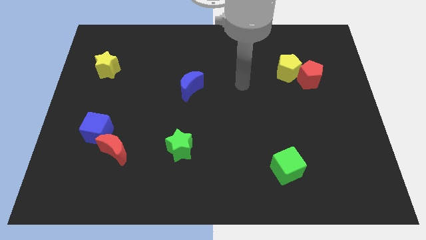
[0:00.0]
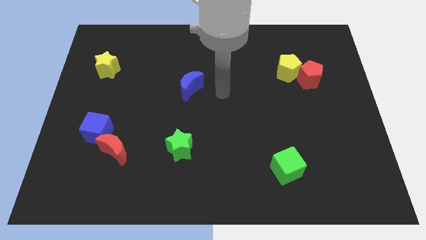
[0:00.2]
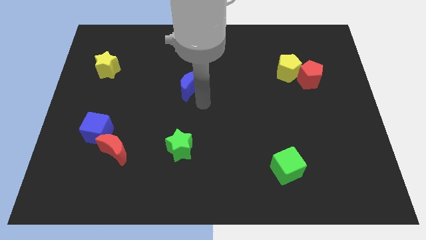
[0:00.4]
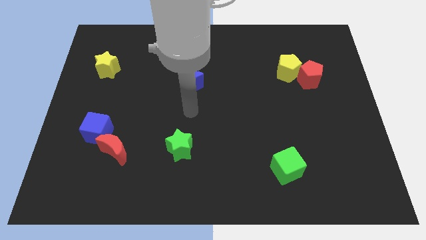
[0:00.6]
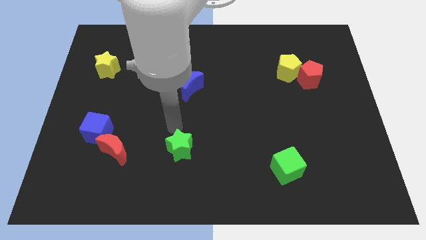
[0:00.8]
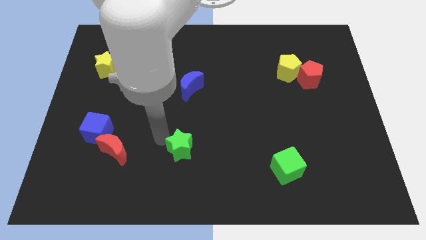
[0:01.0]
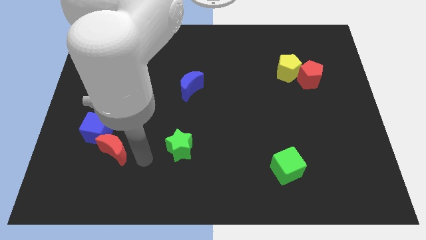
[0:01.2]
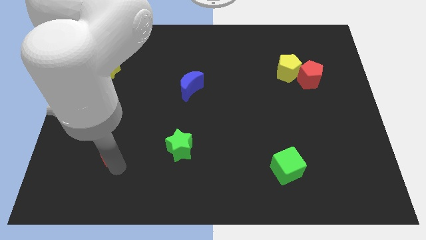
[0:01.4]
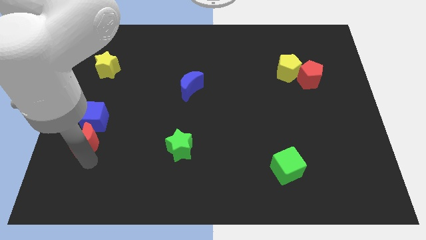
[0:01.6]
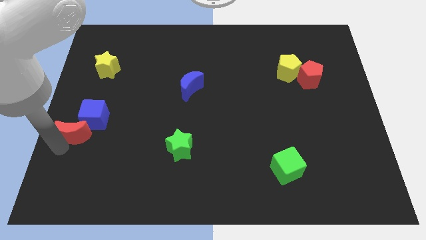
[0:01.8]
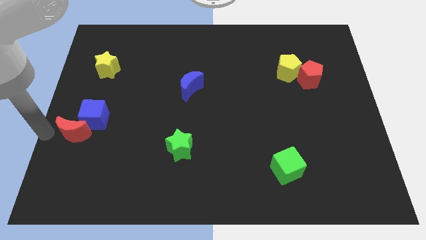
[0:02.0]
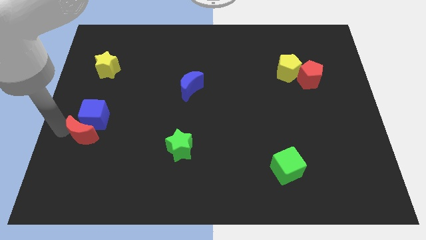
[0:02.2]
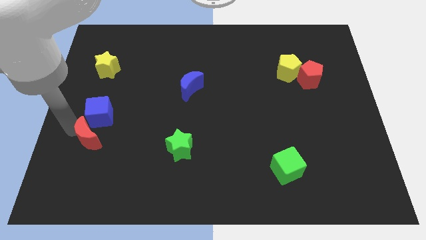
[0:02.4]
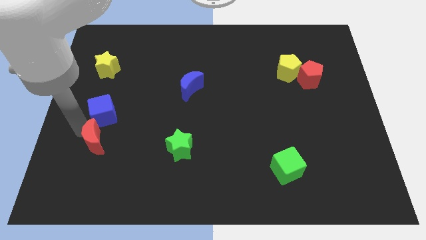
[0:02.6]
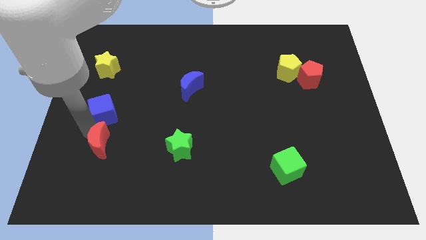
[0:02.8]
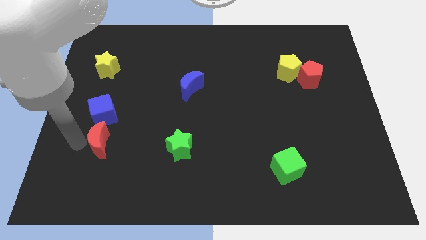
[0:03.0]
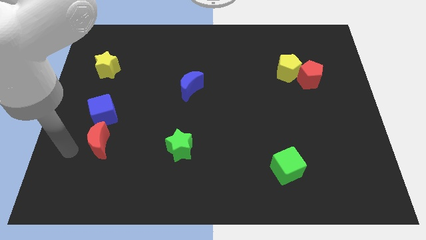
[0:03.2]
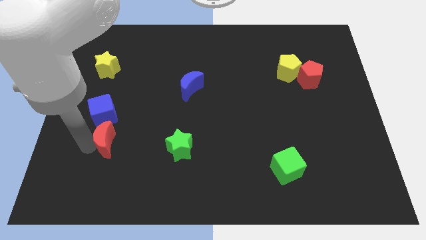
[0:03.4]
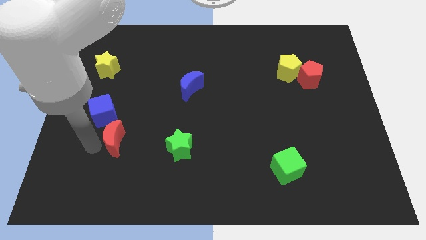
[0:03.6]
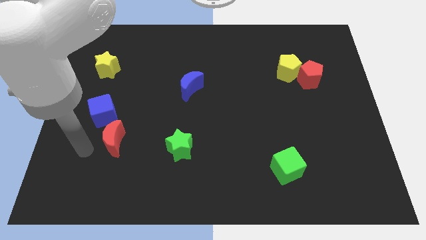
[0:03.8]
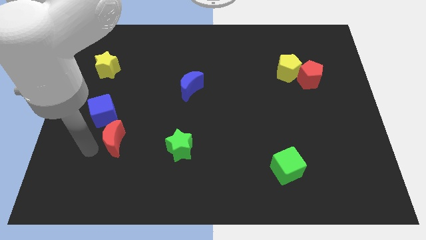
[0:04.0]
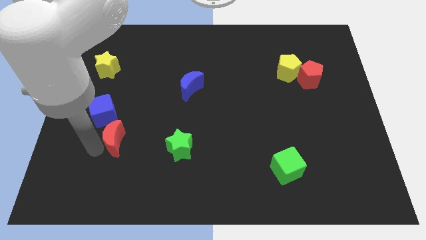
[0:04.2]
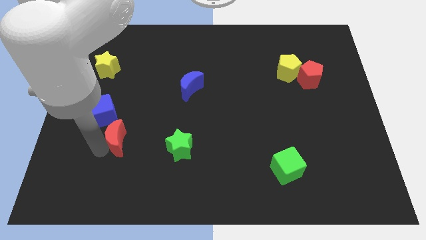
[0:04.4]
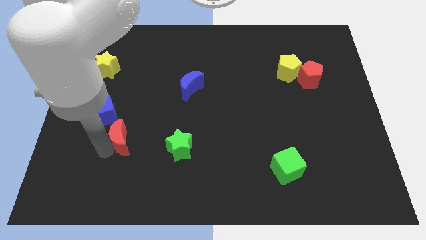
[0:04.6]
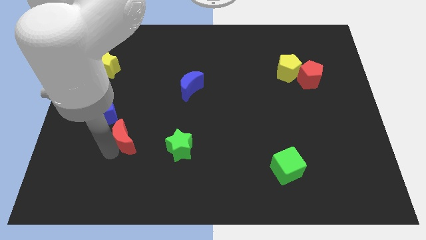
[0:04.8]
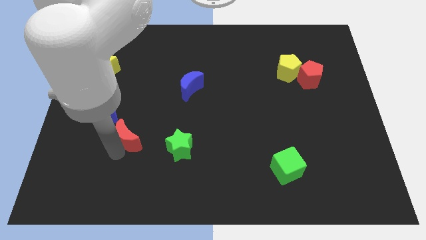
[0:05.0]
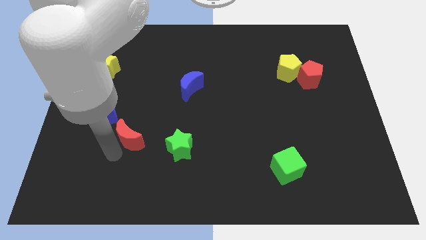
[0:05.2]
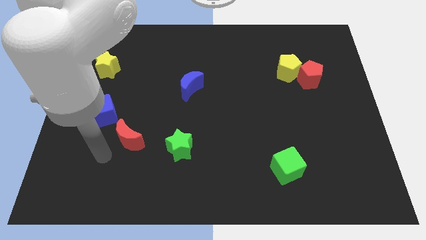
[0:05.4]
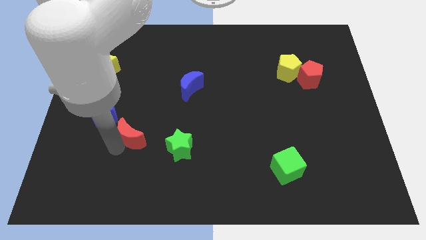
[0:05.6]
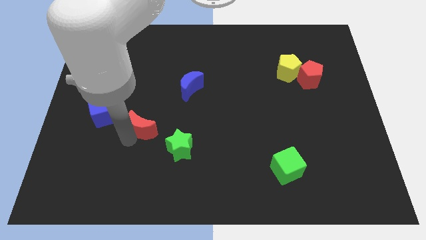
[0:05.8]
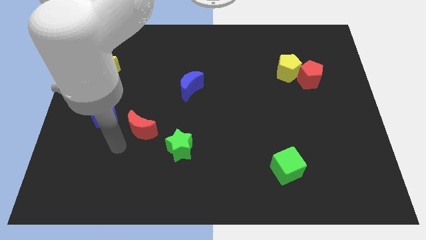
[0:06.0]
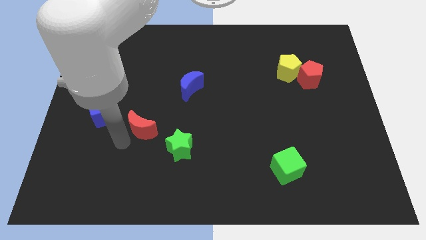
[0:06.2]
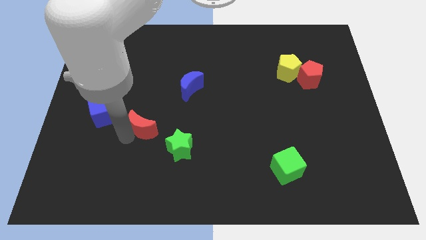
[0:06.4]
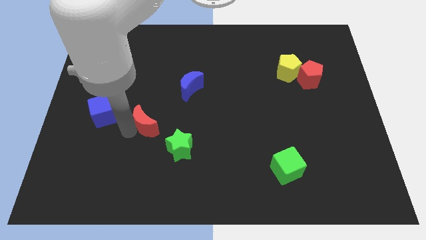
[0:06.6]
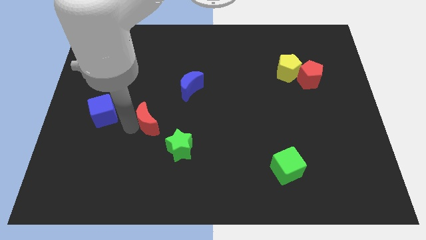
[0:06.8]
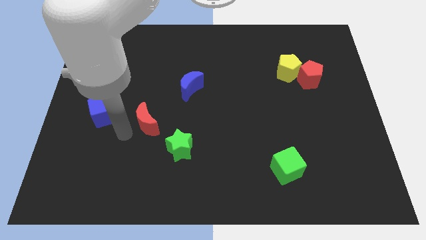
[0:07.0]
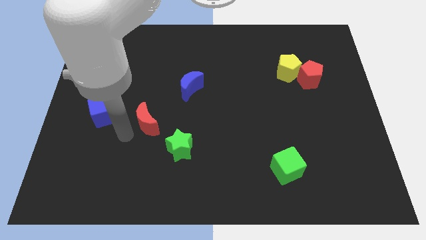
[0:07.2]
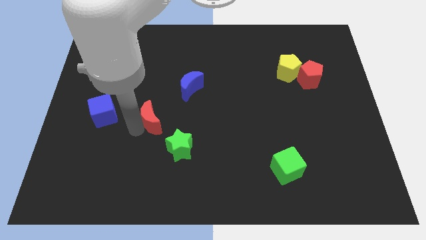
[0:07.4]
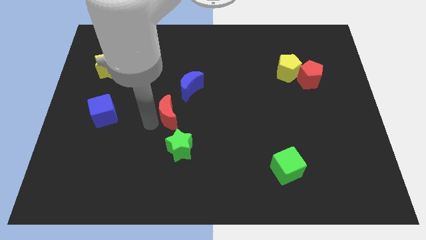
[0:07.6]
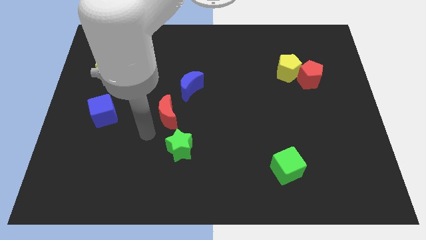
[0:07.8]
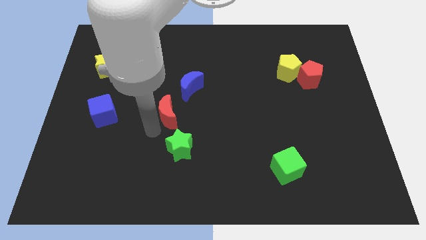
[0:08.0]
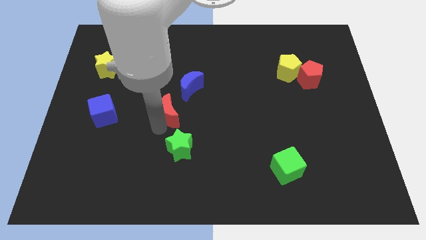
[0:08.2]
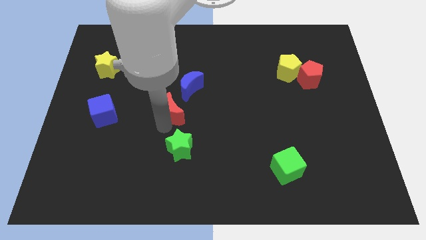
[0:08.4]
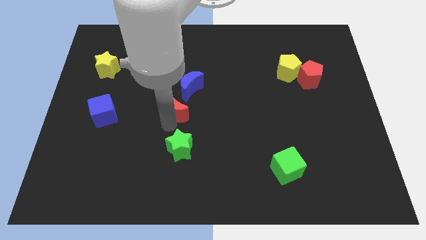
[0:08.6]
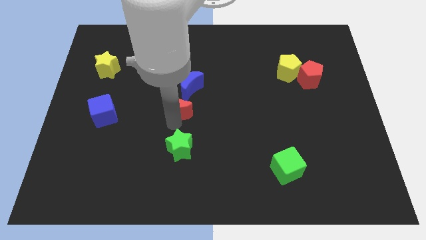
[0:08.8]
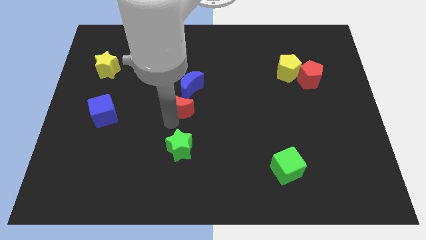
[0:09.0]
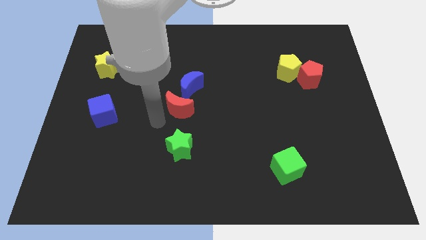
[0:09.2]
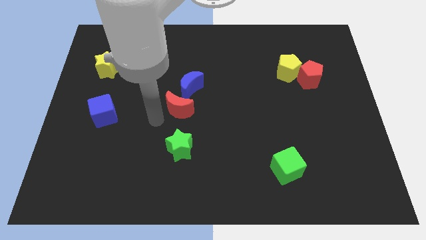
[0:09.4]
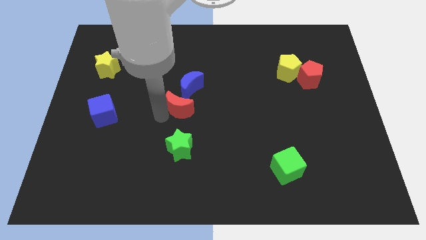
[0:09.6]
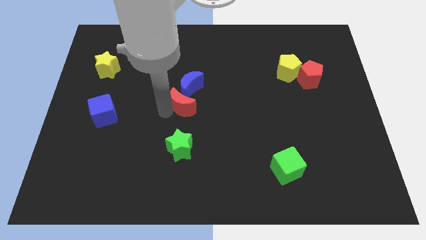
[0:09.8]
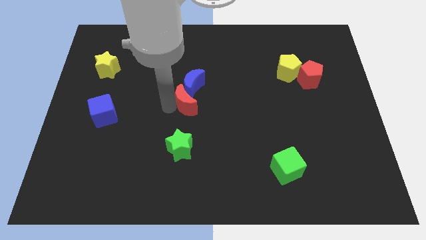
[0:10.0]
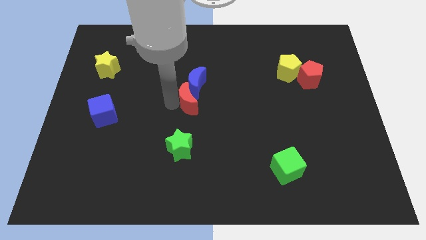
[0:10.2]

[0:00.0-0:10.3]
move the red moon diagonally up and to the right

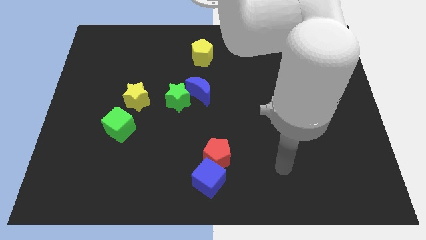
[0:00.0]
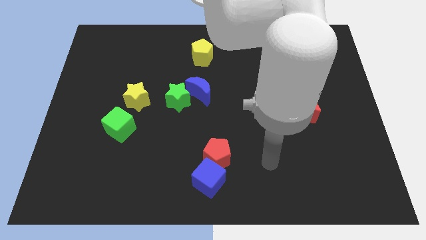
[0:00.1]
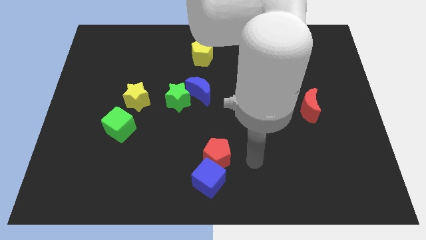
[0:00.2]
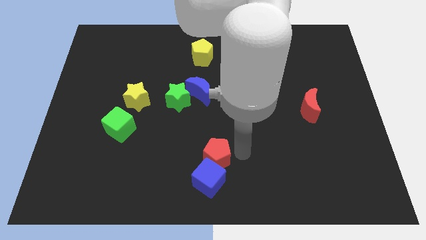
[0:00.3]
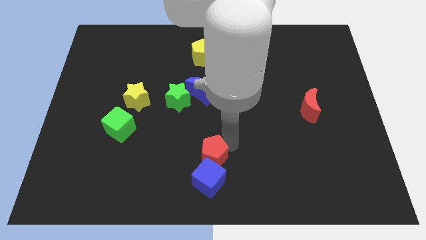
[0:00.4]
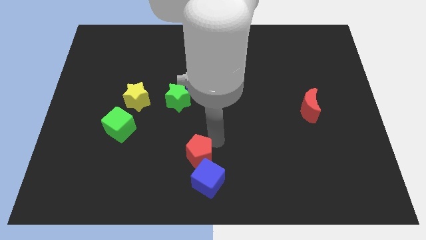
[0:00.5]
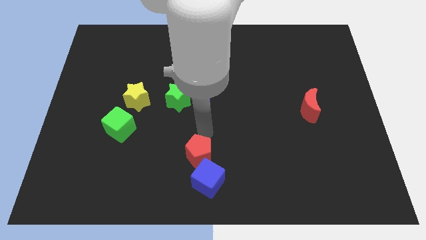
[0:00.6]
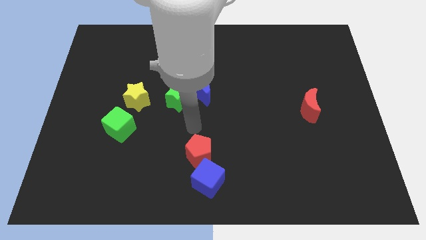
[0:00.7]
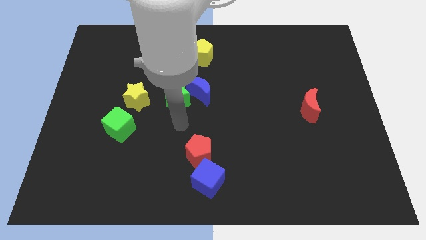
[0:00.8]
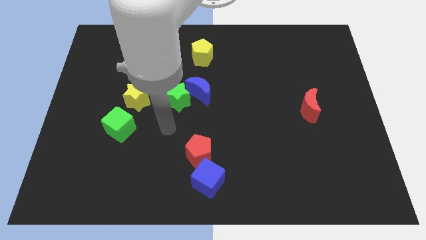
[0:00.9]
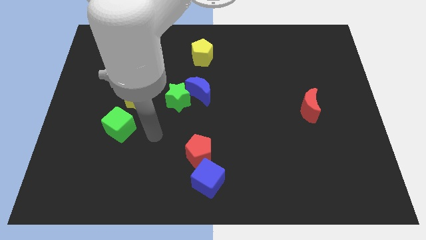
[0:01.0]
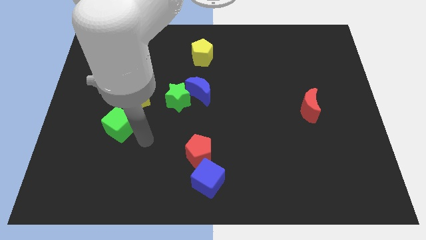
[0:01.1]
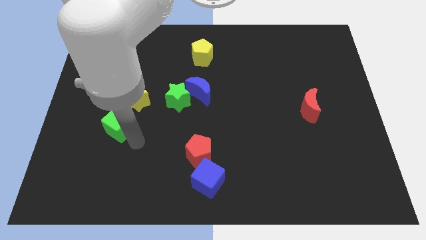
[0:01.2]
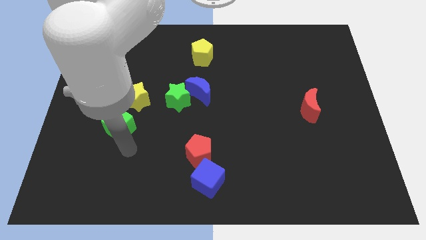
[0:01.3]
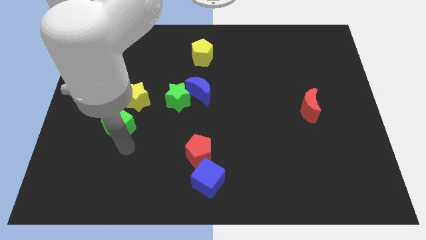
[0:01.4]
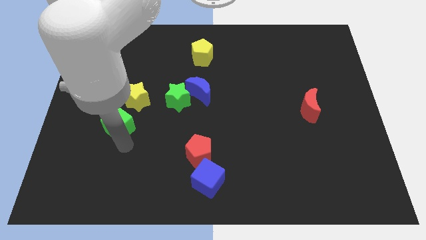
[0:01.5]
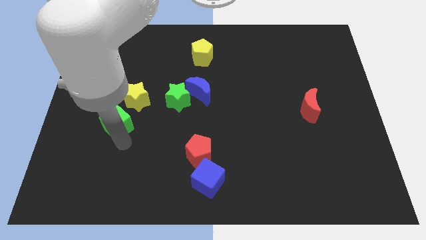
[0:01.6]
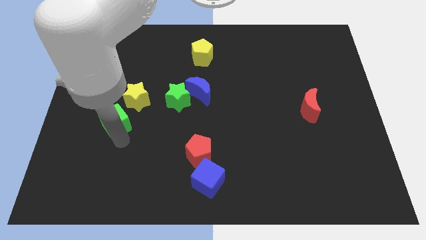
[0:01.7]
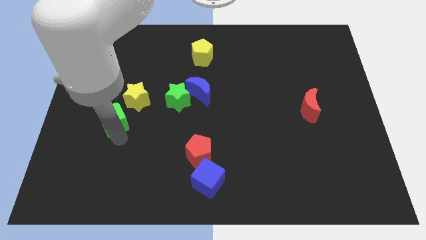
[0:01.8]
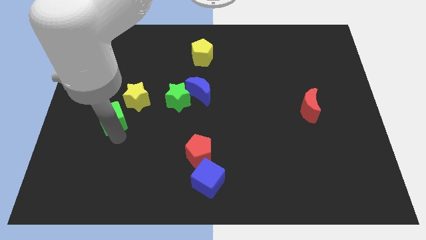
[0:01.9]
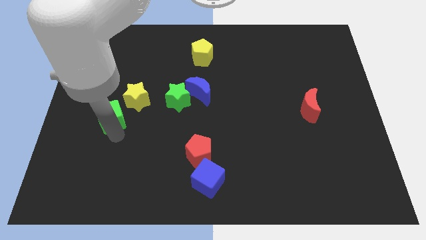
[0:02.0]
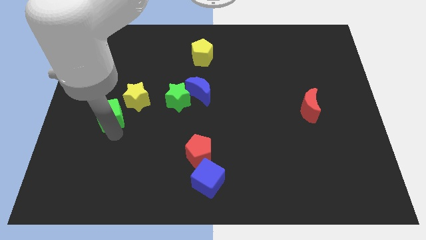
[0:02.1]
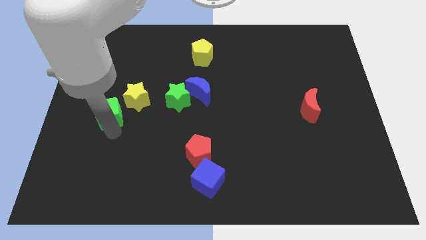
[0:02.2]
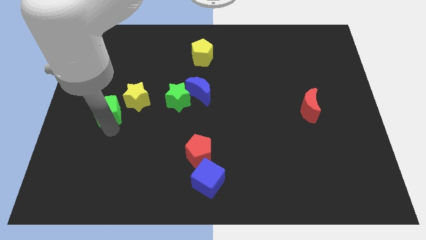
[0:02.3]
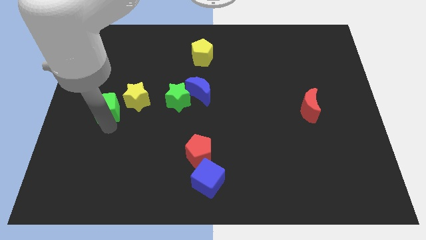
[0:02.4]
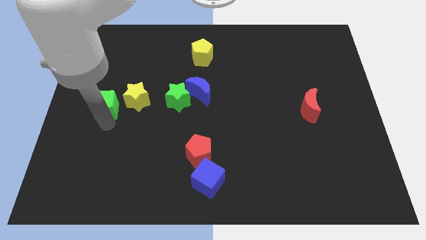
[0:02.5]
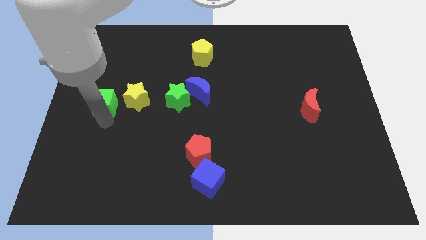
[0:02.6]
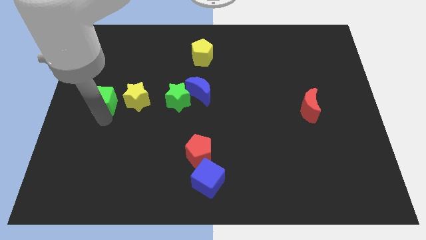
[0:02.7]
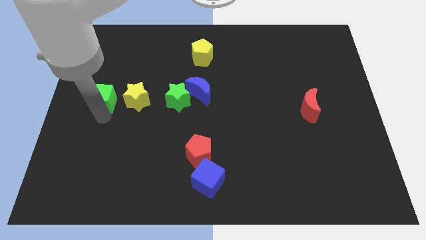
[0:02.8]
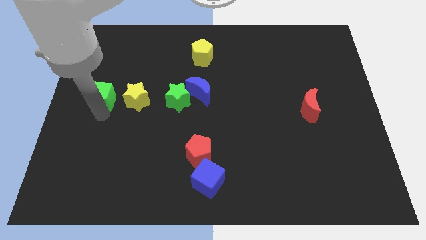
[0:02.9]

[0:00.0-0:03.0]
move the green cube somewhat up
